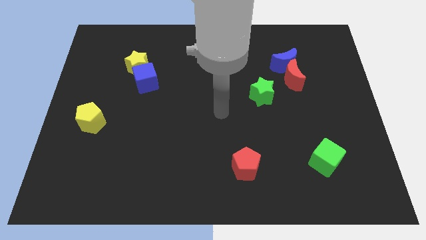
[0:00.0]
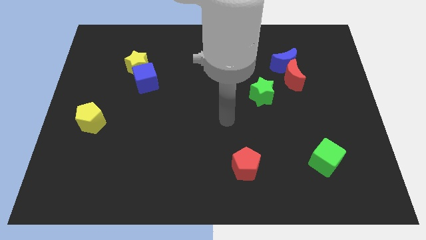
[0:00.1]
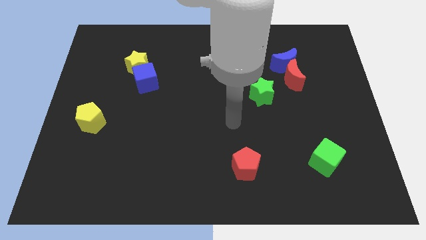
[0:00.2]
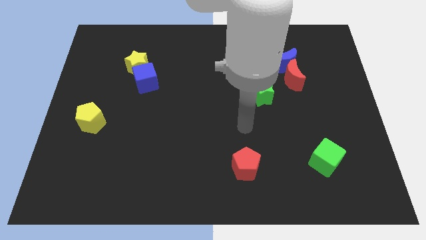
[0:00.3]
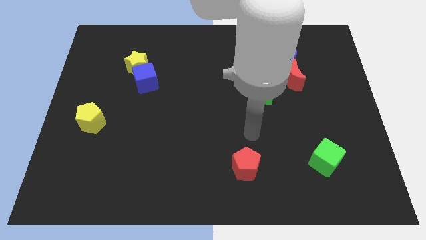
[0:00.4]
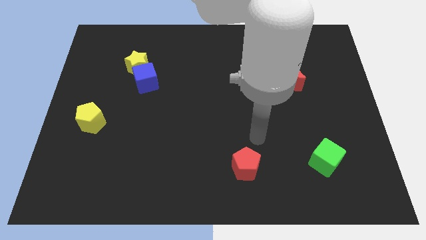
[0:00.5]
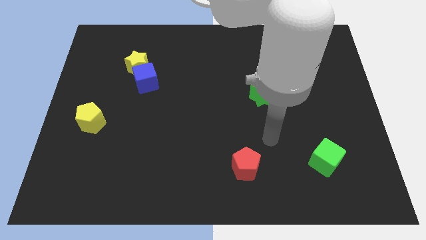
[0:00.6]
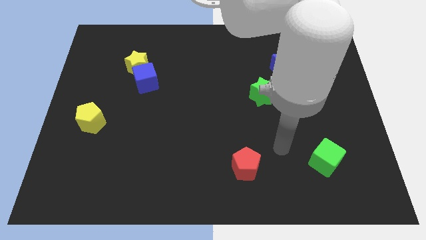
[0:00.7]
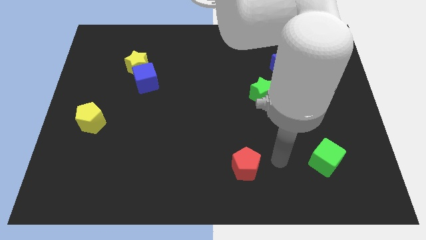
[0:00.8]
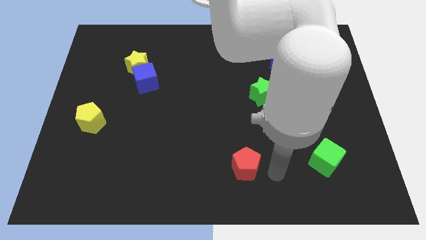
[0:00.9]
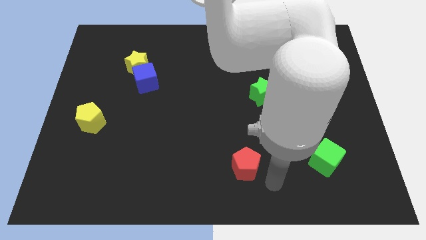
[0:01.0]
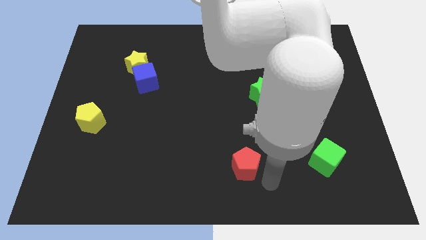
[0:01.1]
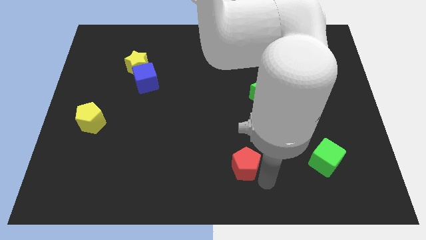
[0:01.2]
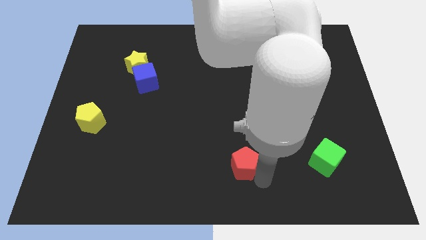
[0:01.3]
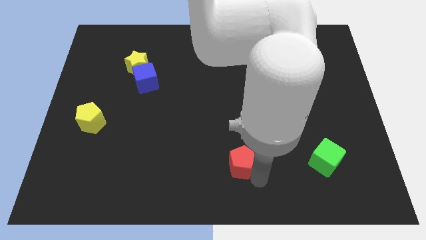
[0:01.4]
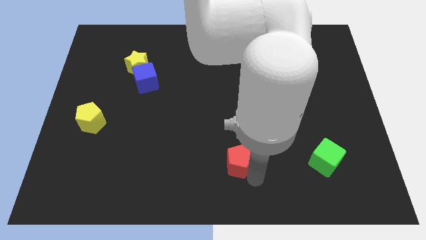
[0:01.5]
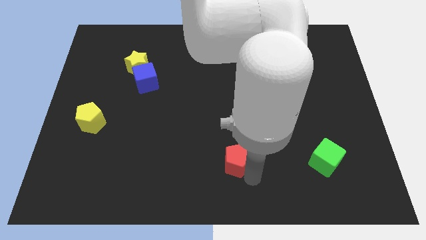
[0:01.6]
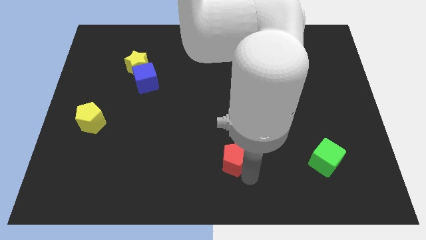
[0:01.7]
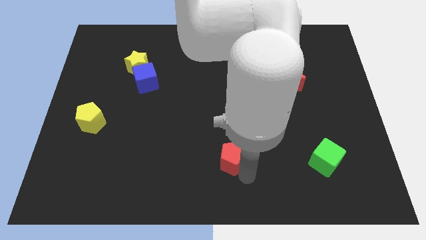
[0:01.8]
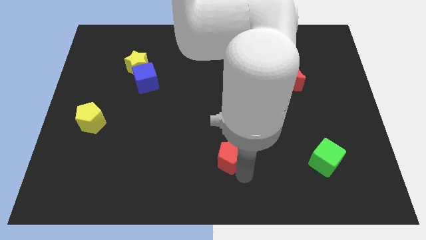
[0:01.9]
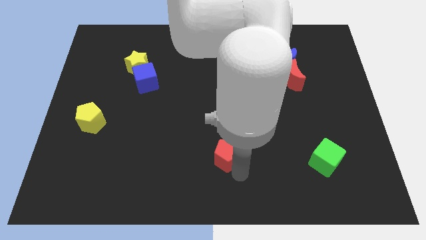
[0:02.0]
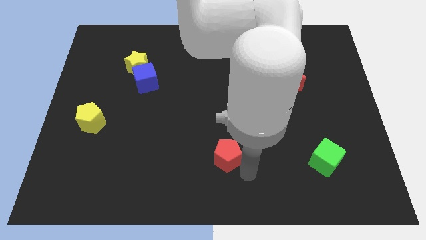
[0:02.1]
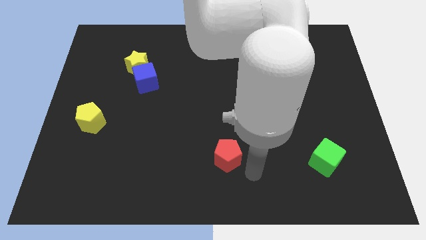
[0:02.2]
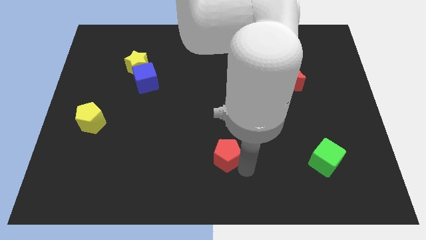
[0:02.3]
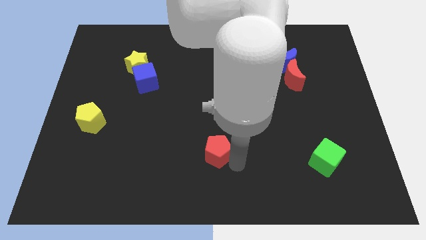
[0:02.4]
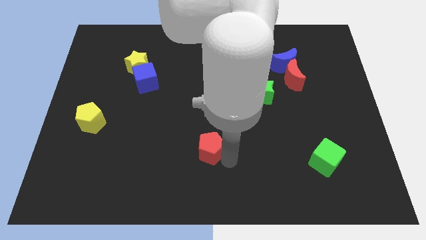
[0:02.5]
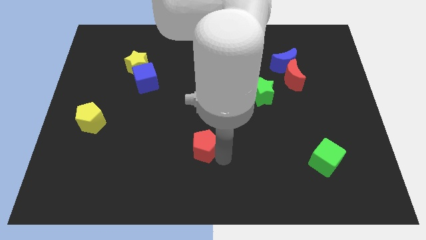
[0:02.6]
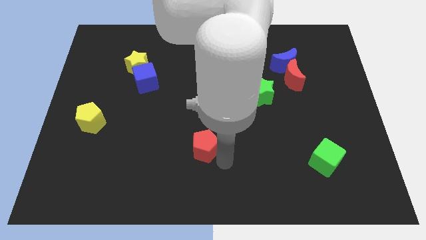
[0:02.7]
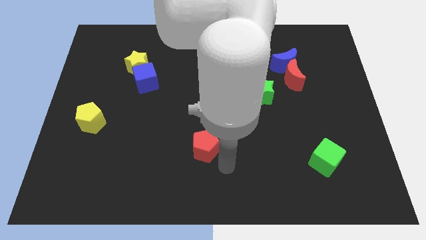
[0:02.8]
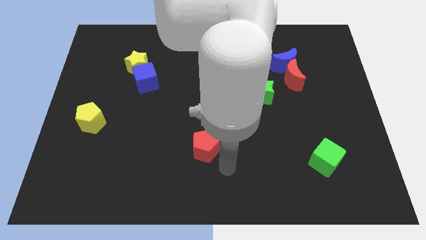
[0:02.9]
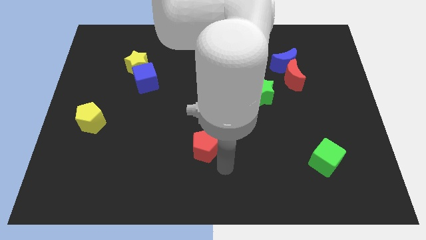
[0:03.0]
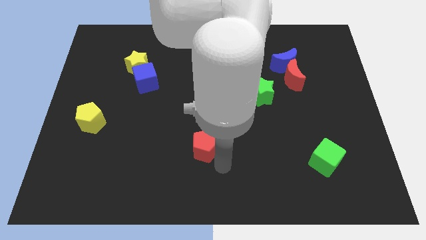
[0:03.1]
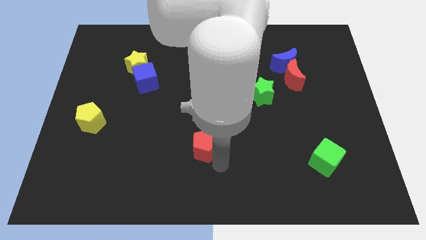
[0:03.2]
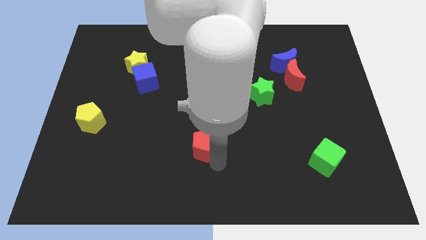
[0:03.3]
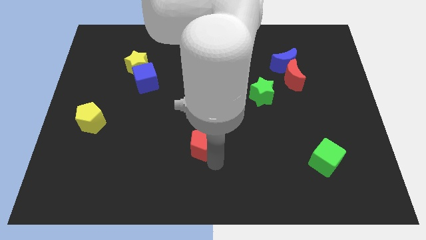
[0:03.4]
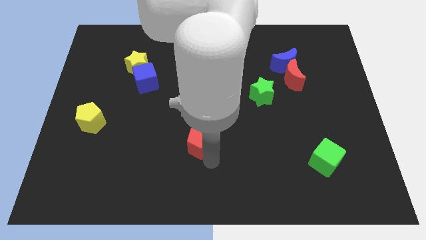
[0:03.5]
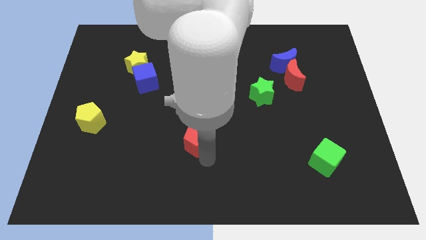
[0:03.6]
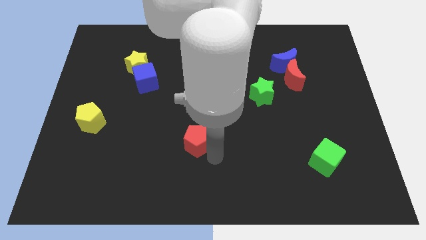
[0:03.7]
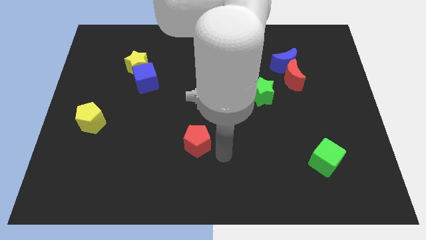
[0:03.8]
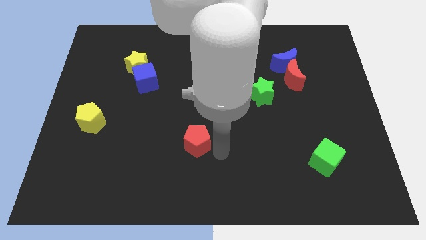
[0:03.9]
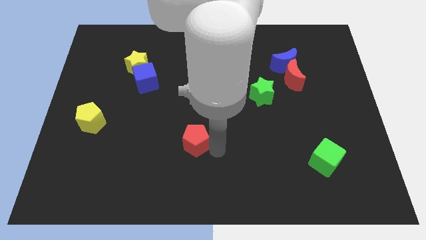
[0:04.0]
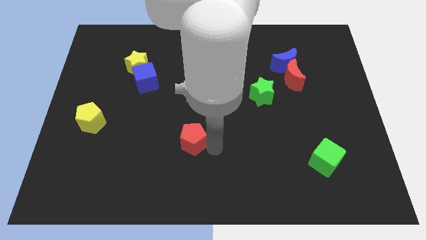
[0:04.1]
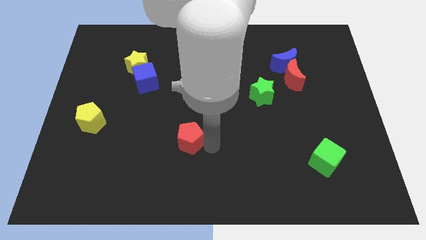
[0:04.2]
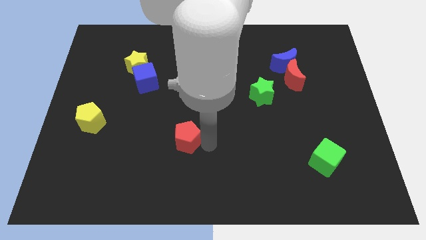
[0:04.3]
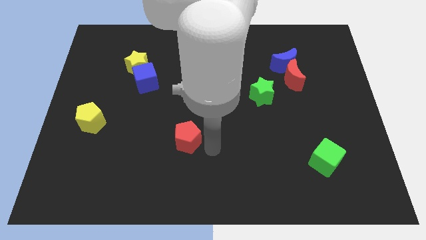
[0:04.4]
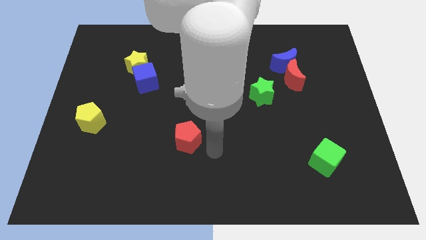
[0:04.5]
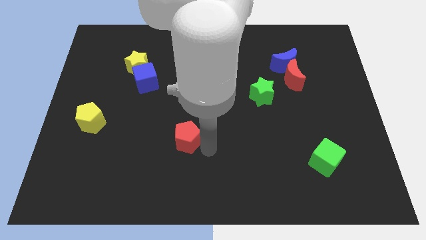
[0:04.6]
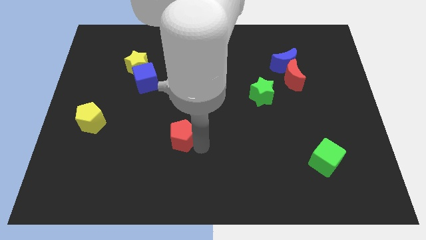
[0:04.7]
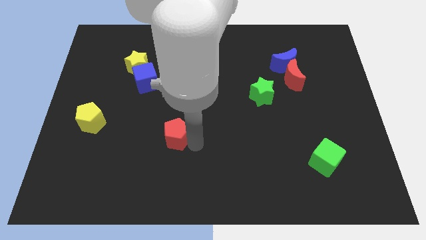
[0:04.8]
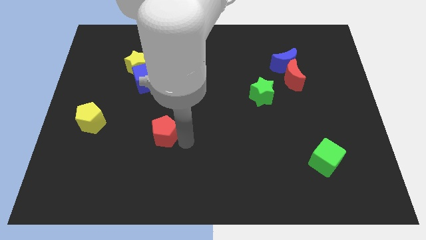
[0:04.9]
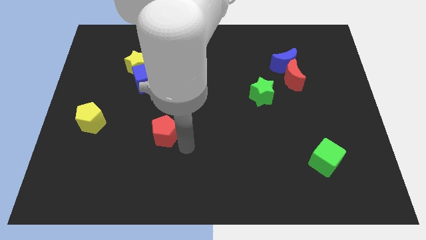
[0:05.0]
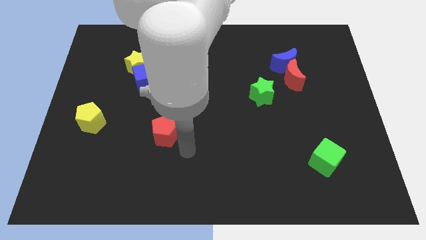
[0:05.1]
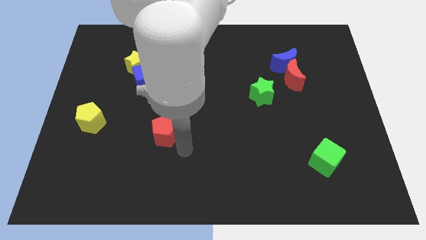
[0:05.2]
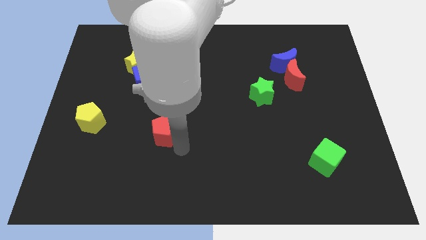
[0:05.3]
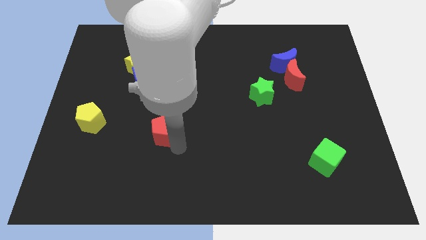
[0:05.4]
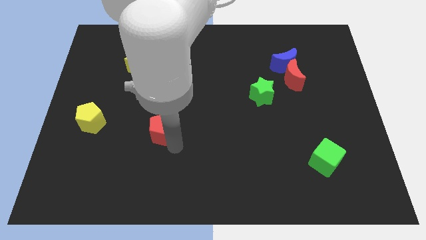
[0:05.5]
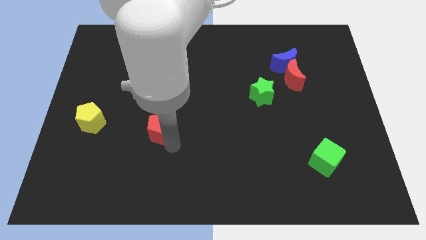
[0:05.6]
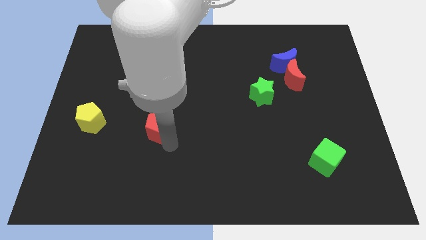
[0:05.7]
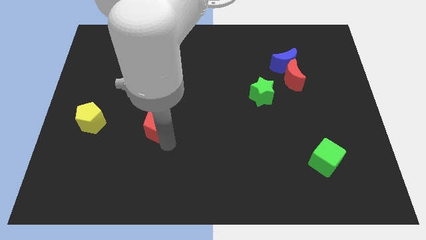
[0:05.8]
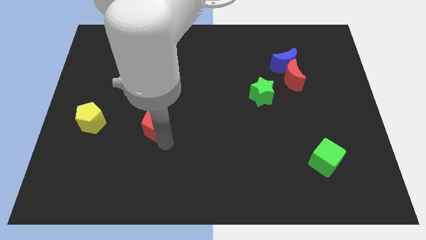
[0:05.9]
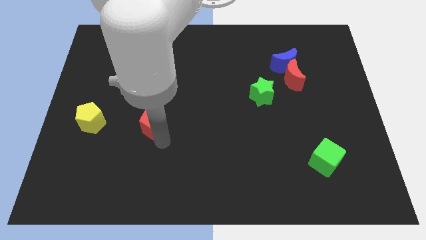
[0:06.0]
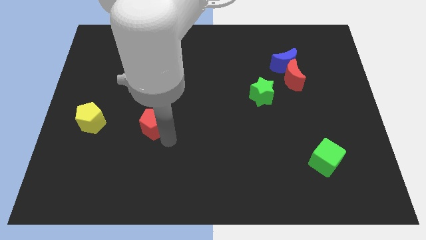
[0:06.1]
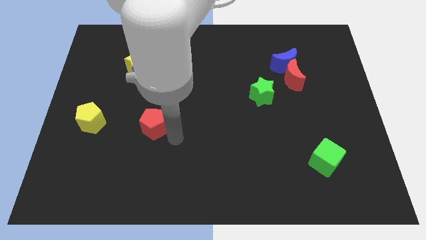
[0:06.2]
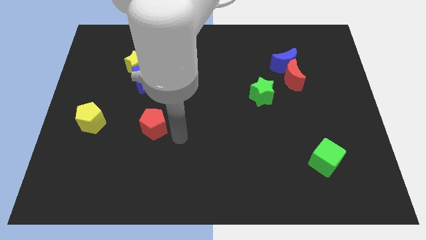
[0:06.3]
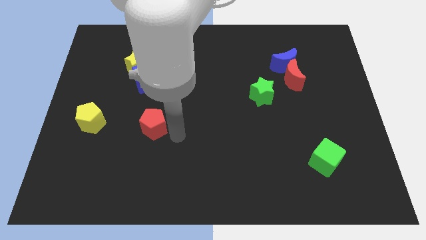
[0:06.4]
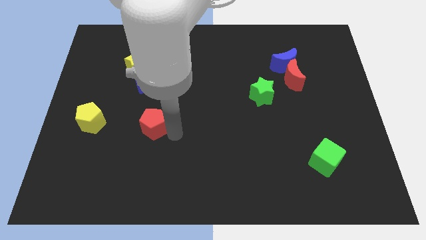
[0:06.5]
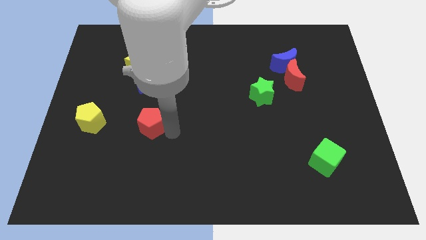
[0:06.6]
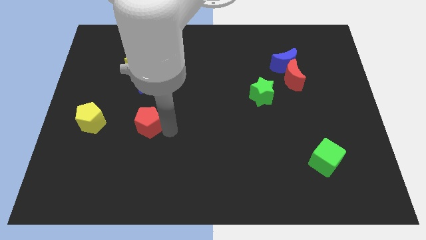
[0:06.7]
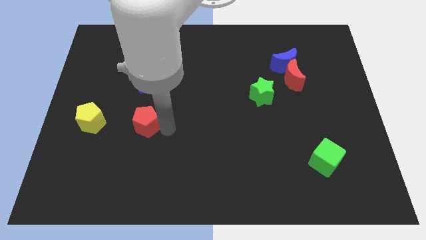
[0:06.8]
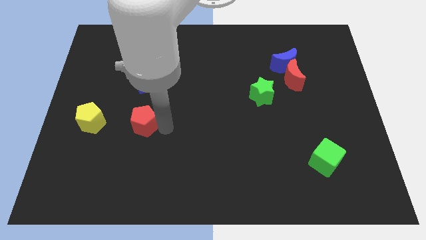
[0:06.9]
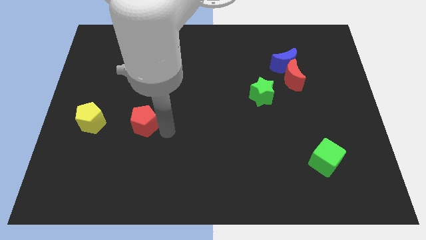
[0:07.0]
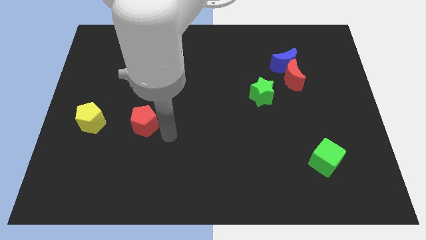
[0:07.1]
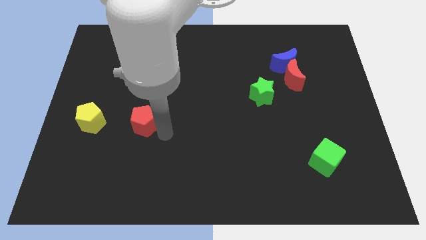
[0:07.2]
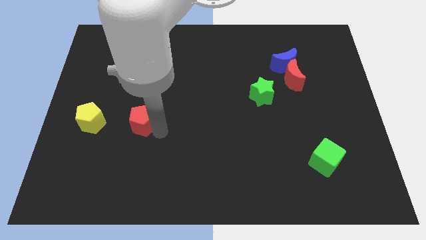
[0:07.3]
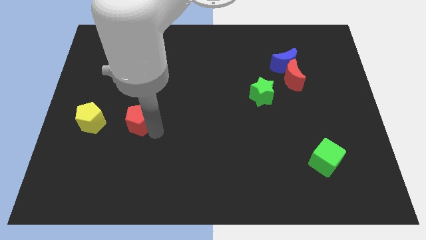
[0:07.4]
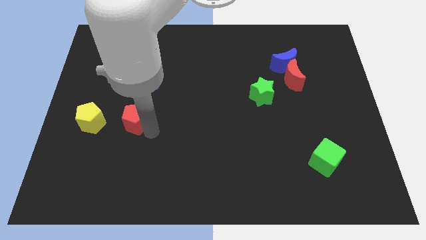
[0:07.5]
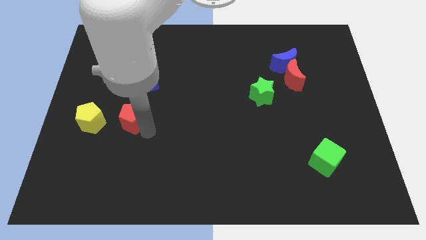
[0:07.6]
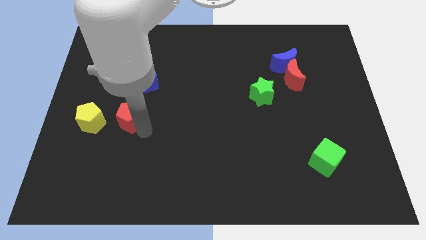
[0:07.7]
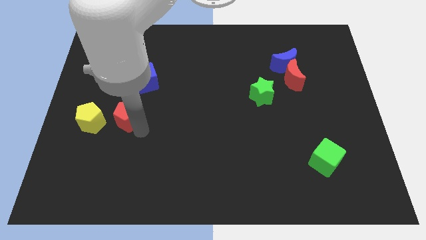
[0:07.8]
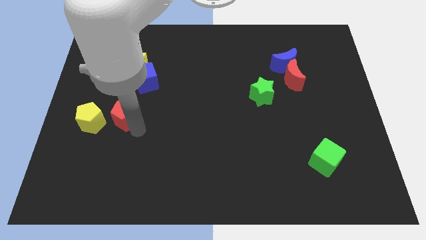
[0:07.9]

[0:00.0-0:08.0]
move the red pentagon to the top right side of the yellow pentagon

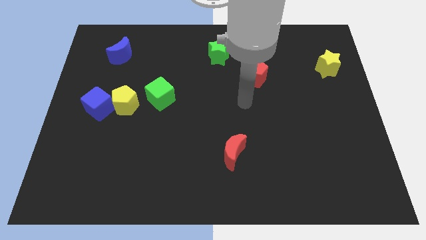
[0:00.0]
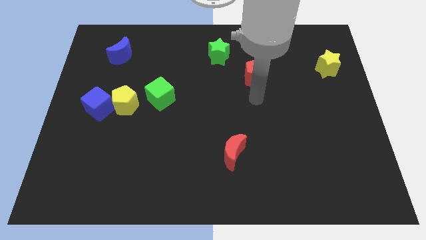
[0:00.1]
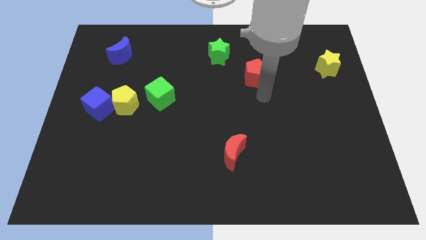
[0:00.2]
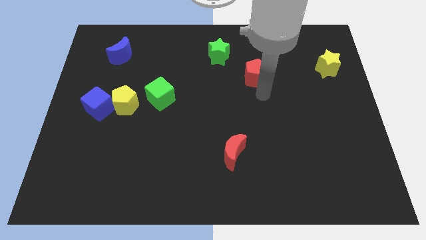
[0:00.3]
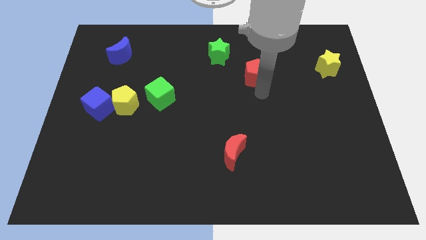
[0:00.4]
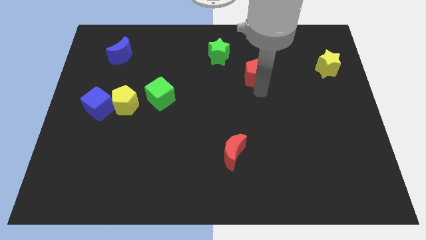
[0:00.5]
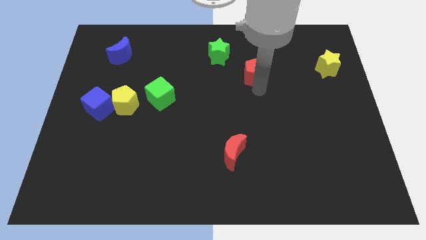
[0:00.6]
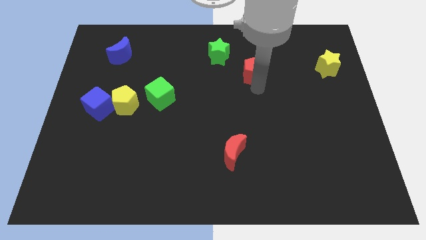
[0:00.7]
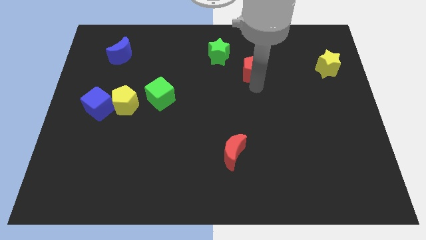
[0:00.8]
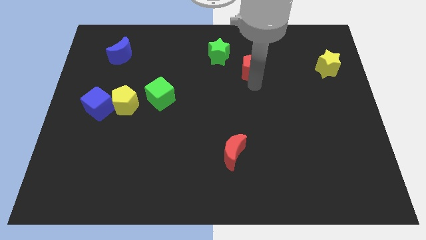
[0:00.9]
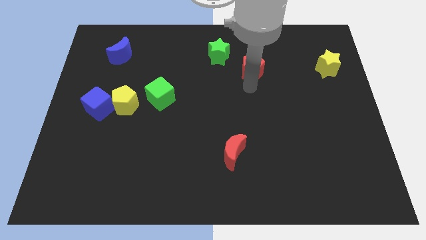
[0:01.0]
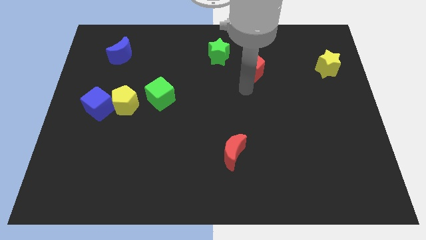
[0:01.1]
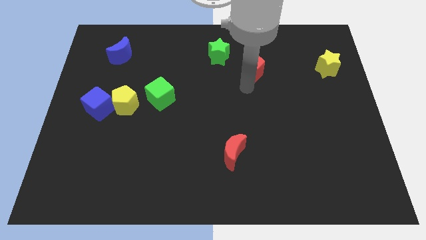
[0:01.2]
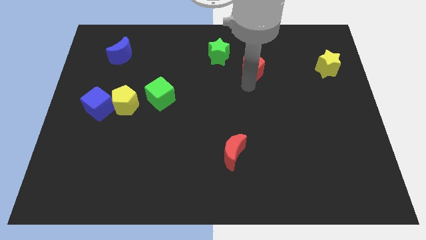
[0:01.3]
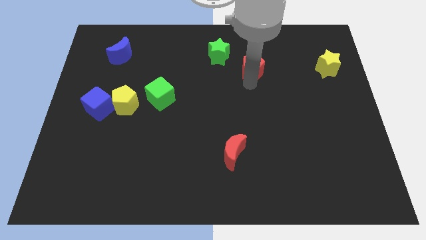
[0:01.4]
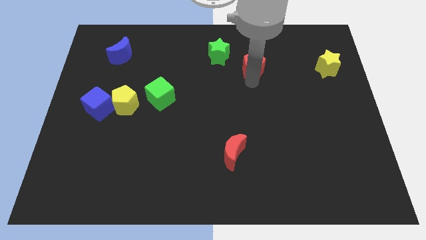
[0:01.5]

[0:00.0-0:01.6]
push the red pentagon right of the green star
